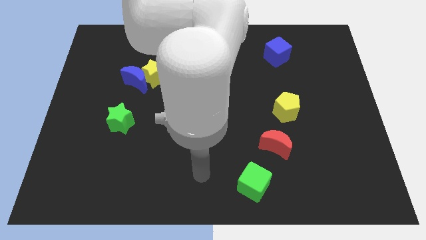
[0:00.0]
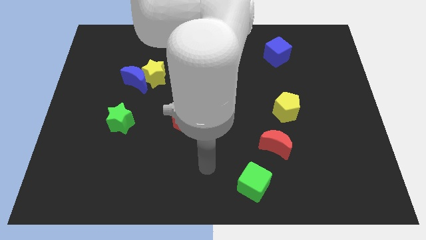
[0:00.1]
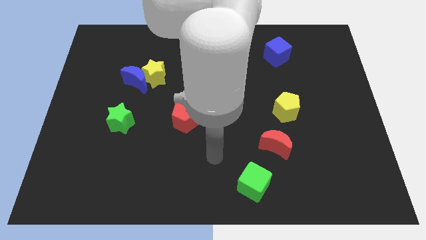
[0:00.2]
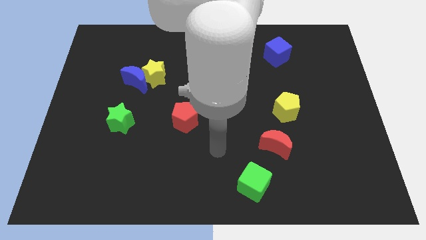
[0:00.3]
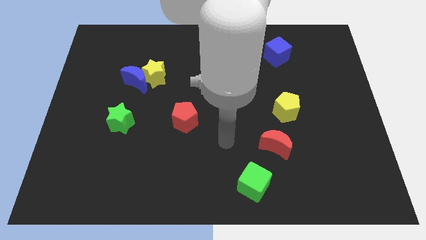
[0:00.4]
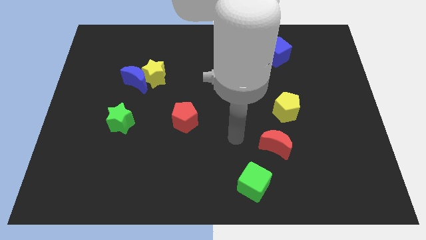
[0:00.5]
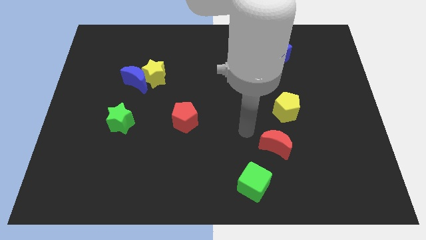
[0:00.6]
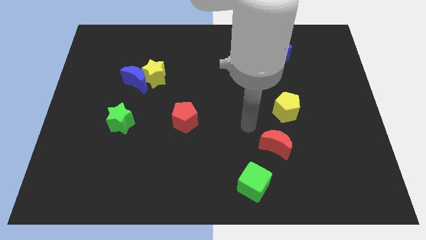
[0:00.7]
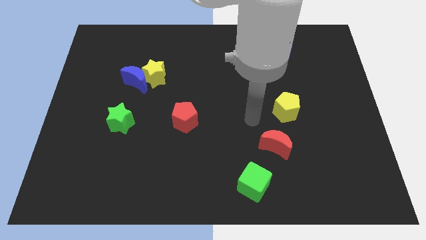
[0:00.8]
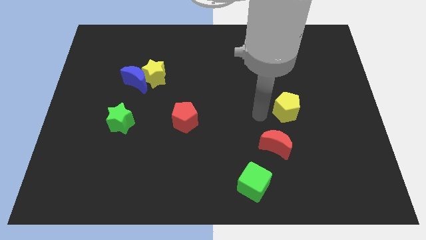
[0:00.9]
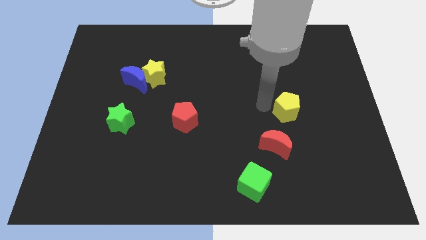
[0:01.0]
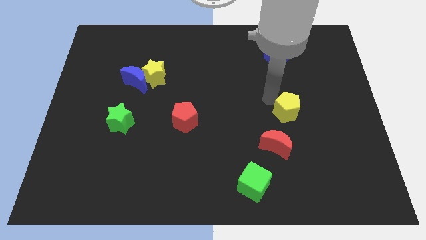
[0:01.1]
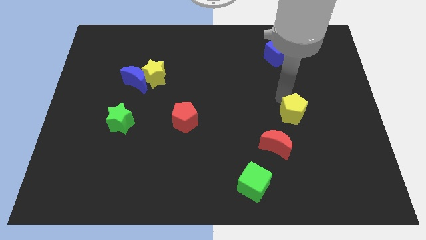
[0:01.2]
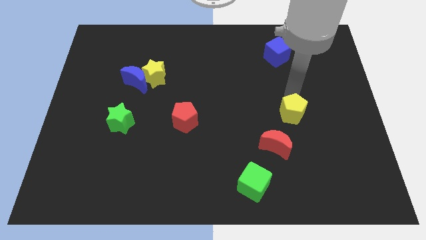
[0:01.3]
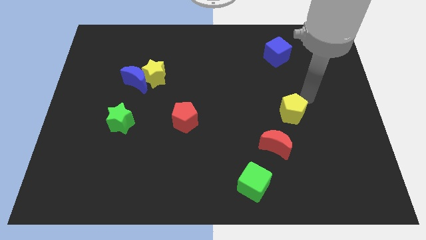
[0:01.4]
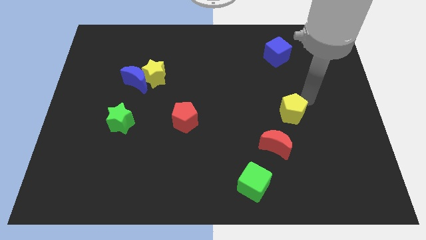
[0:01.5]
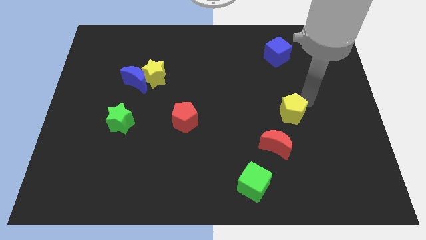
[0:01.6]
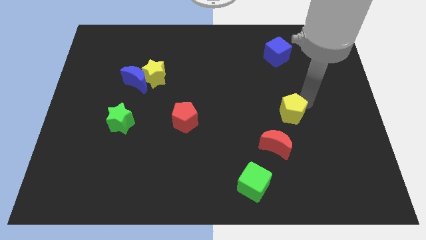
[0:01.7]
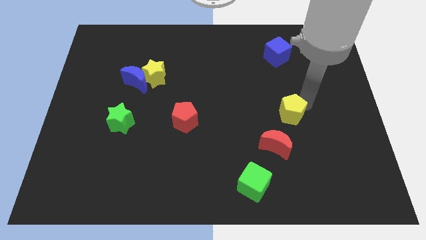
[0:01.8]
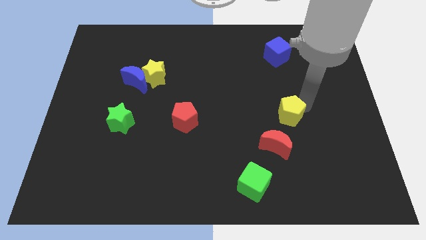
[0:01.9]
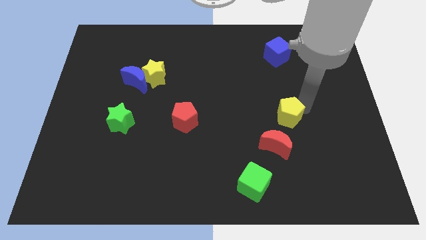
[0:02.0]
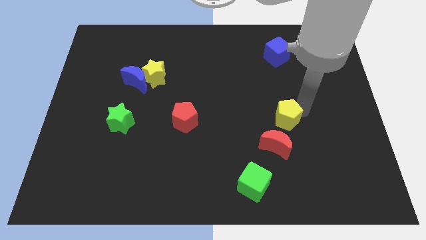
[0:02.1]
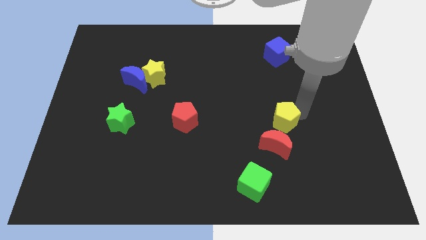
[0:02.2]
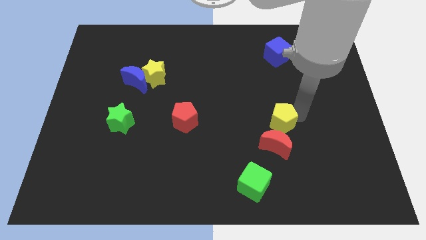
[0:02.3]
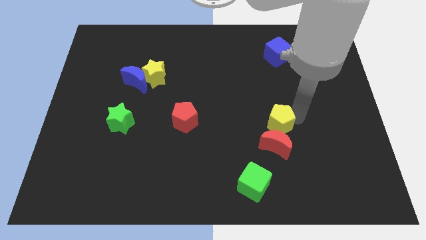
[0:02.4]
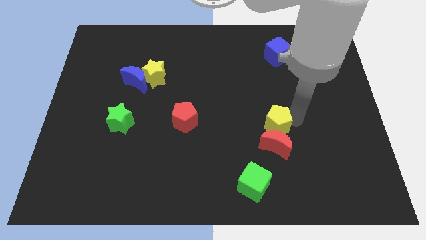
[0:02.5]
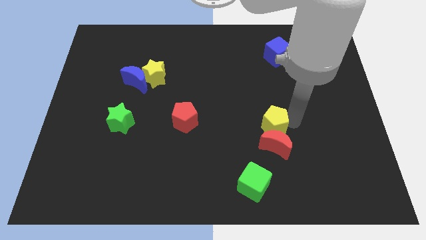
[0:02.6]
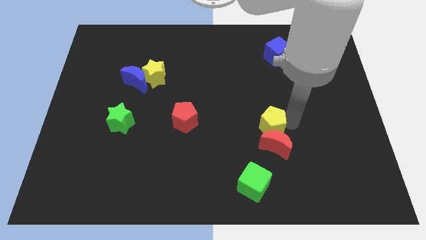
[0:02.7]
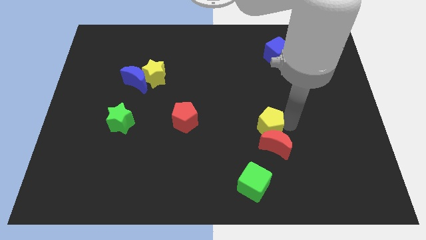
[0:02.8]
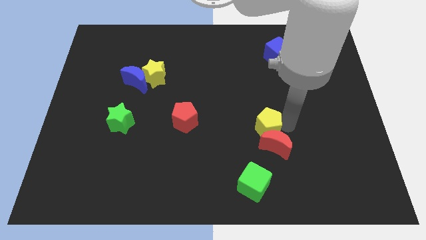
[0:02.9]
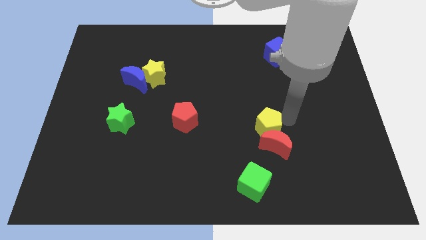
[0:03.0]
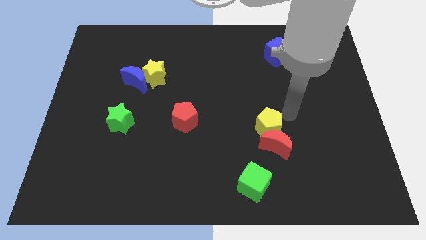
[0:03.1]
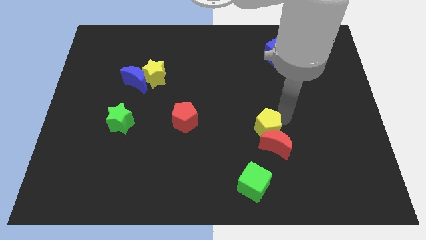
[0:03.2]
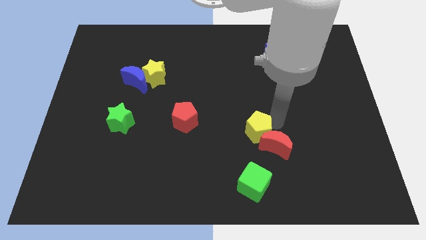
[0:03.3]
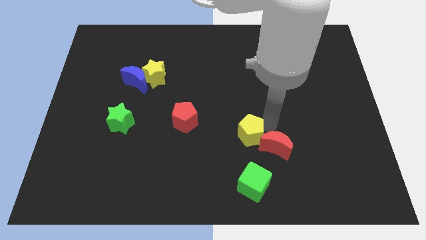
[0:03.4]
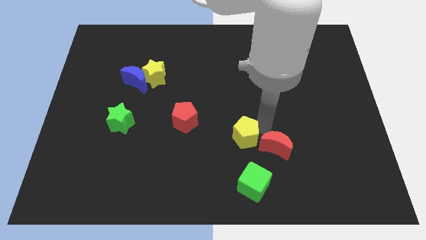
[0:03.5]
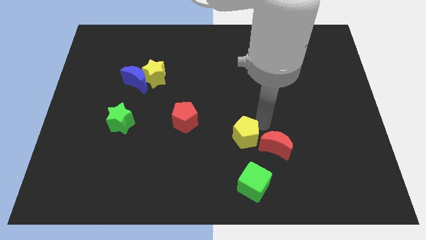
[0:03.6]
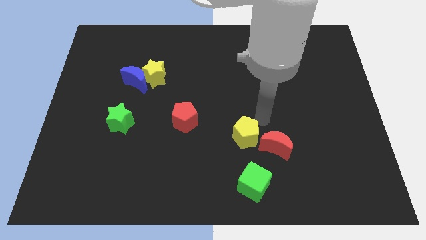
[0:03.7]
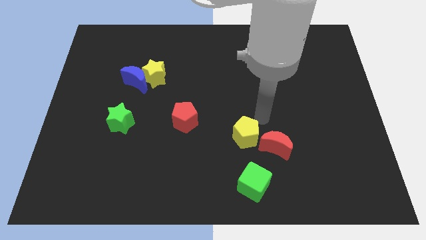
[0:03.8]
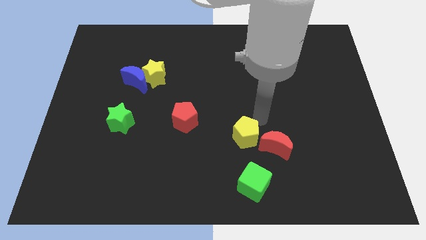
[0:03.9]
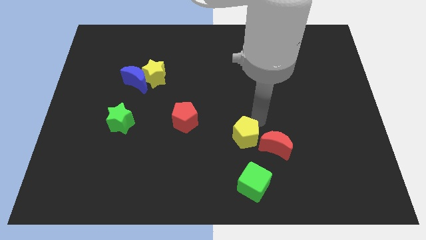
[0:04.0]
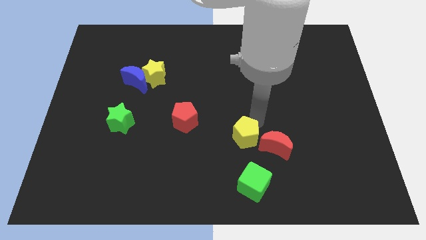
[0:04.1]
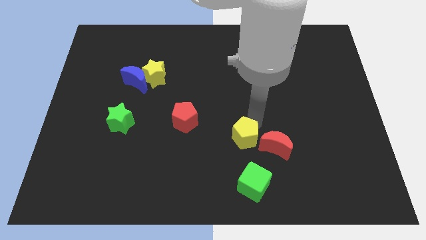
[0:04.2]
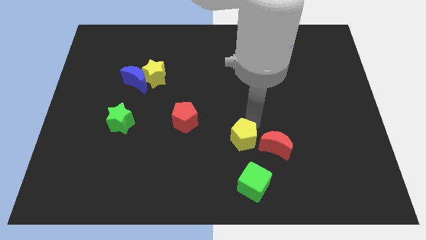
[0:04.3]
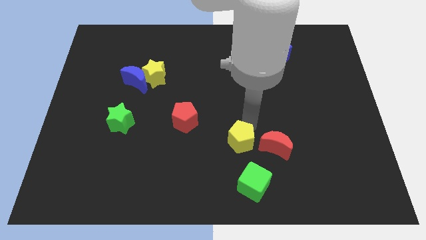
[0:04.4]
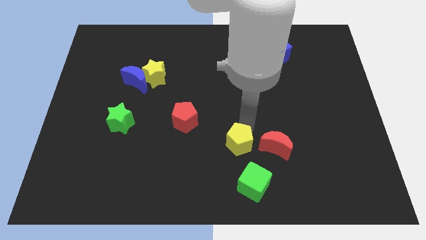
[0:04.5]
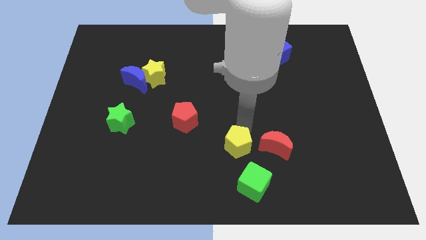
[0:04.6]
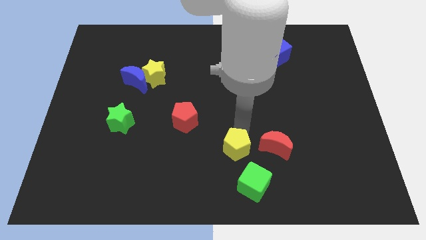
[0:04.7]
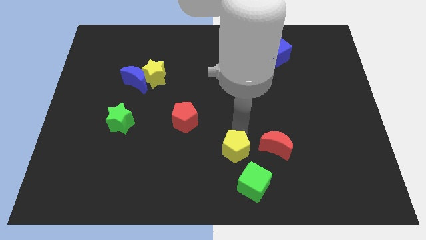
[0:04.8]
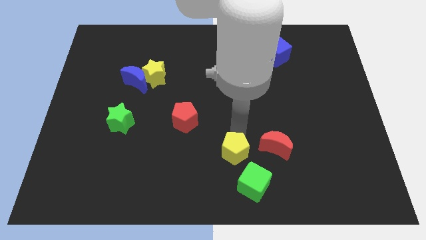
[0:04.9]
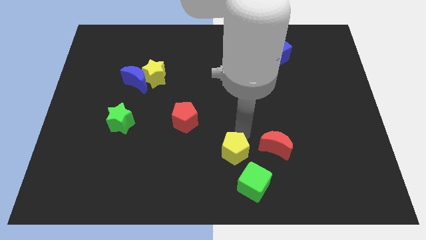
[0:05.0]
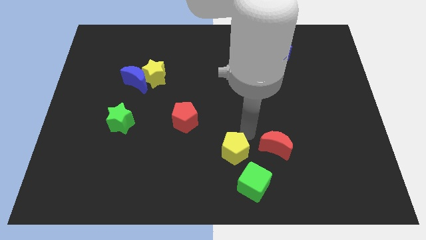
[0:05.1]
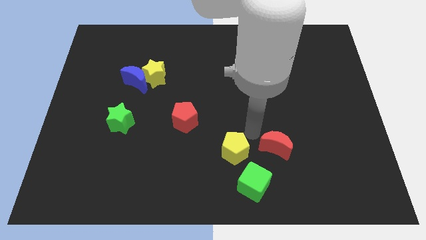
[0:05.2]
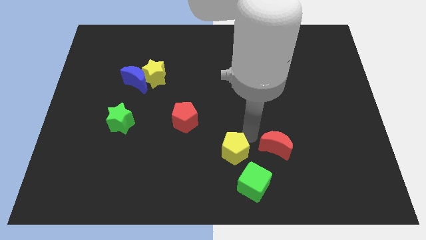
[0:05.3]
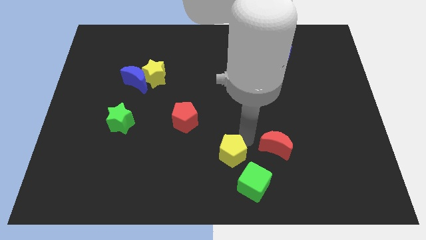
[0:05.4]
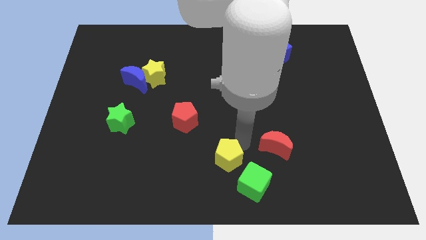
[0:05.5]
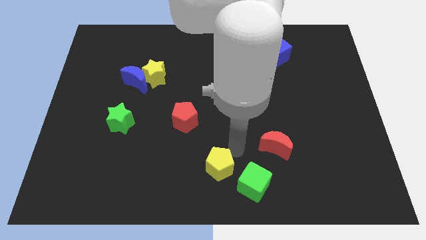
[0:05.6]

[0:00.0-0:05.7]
put the yellow pentagon to the left side of the green cube

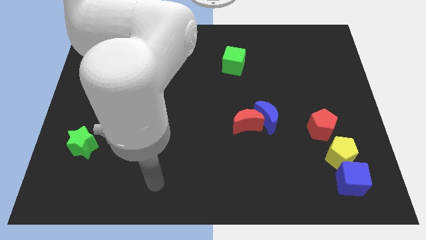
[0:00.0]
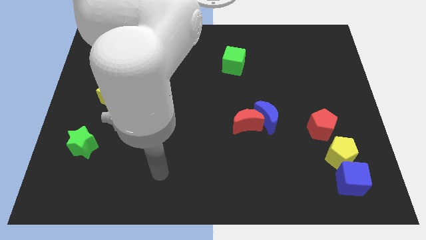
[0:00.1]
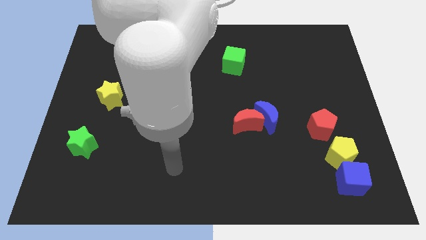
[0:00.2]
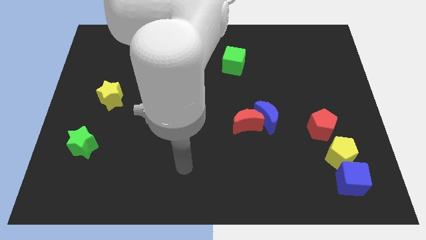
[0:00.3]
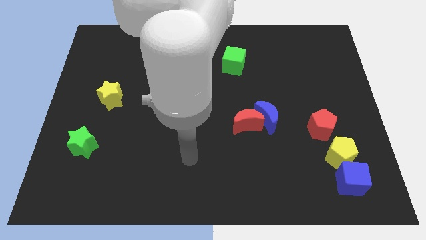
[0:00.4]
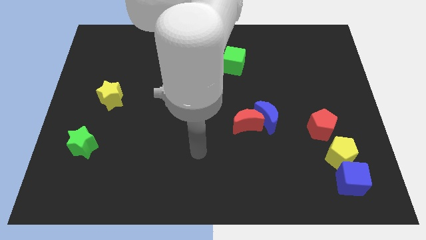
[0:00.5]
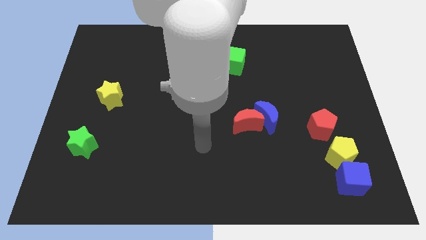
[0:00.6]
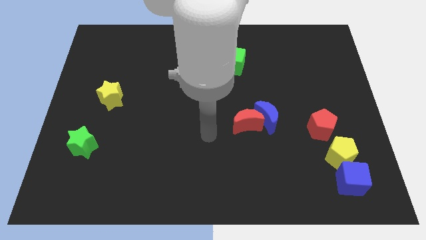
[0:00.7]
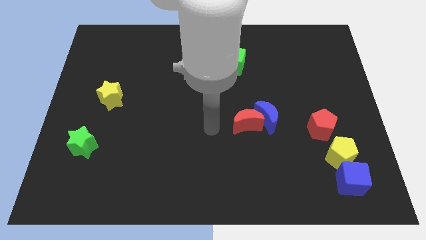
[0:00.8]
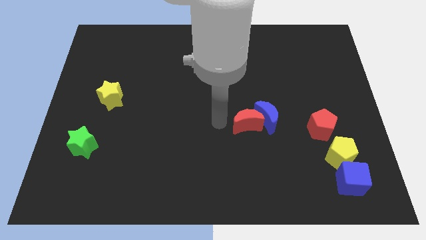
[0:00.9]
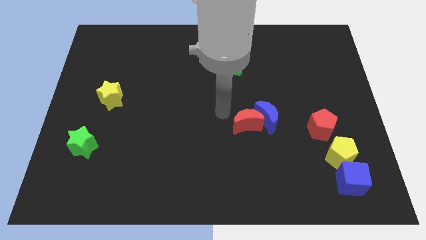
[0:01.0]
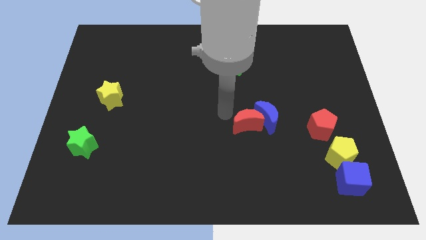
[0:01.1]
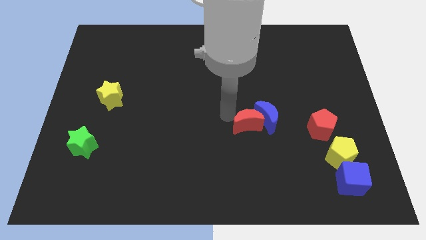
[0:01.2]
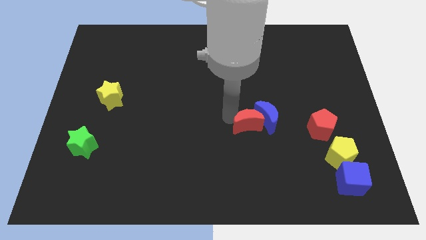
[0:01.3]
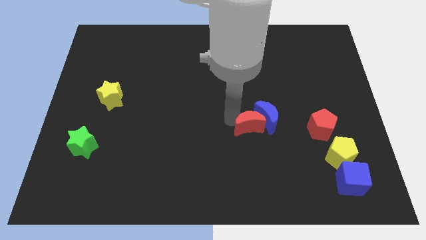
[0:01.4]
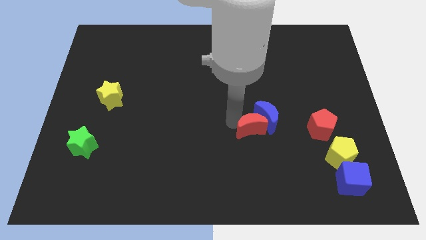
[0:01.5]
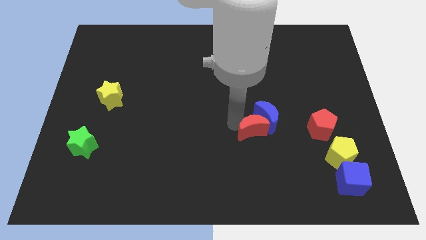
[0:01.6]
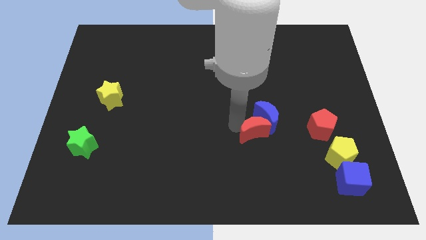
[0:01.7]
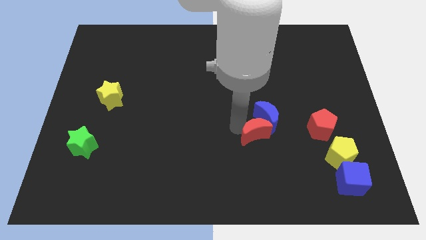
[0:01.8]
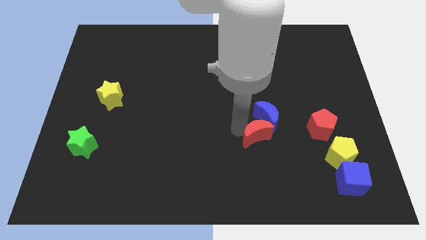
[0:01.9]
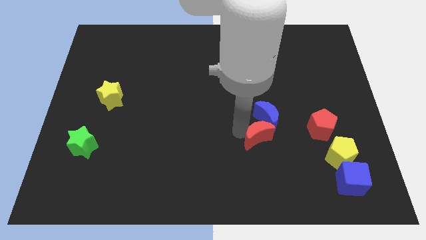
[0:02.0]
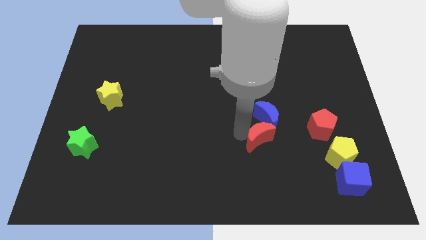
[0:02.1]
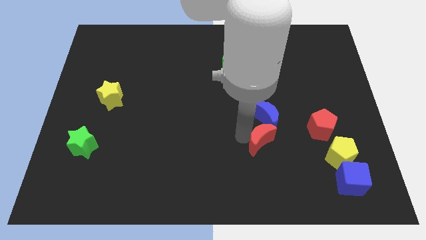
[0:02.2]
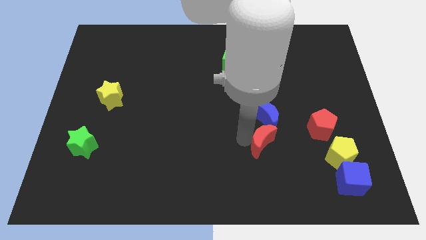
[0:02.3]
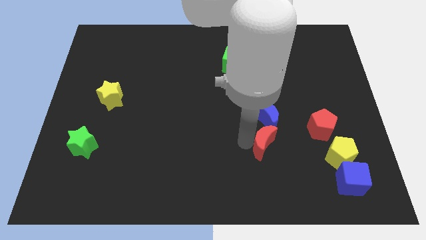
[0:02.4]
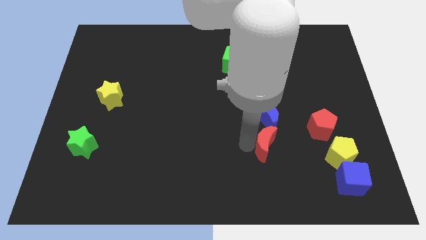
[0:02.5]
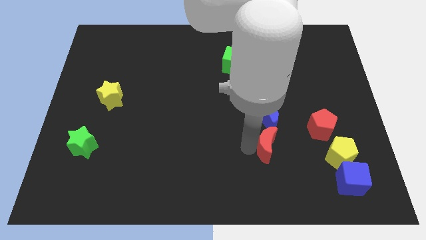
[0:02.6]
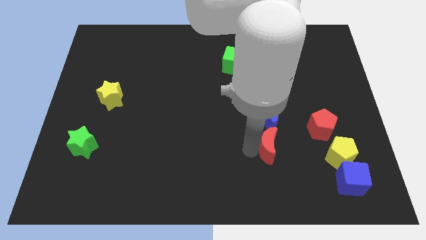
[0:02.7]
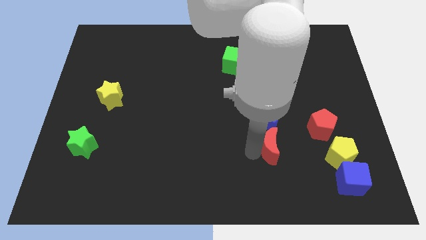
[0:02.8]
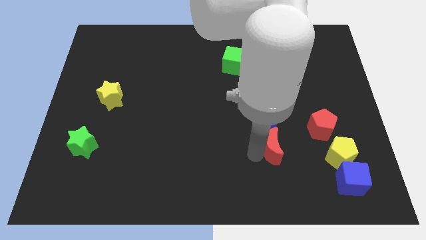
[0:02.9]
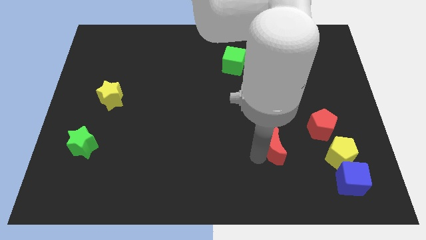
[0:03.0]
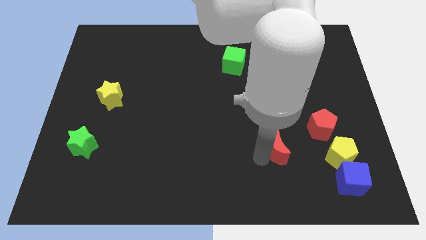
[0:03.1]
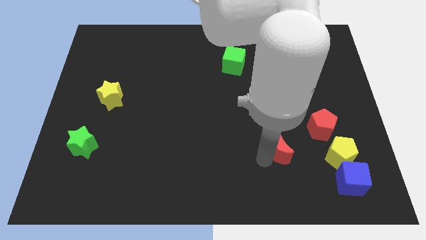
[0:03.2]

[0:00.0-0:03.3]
slide the red moon diagonally down and to the right of the blue moon
